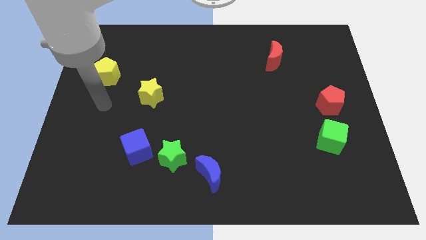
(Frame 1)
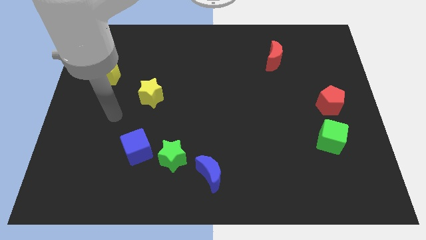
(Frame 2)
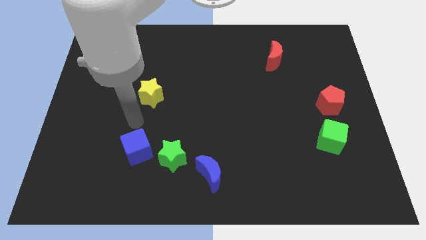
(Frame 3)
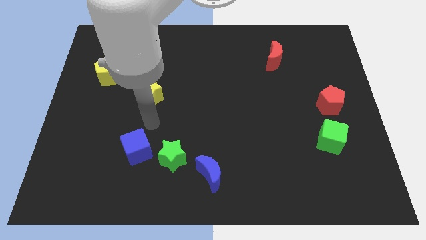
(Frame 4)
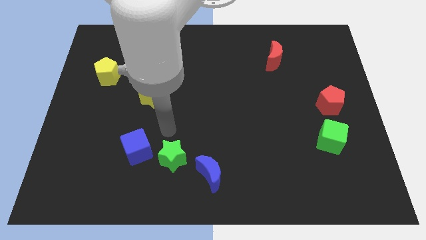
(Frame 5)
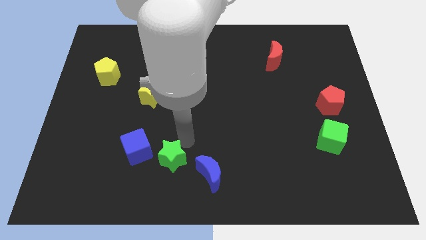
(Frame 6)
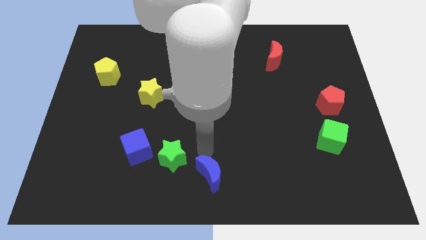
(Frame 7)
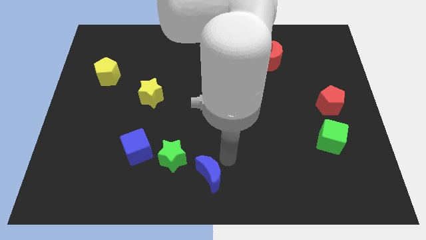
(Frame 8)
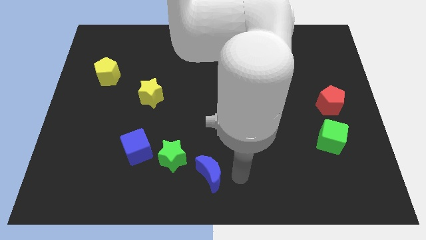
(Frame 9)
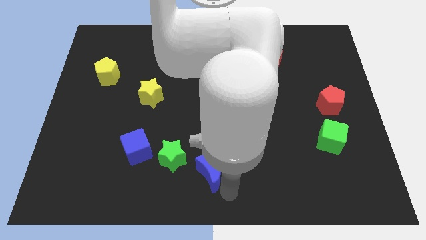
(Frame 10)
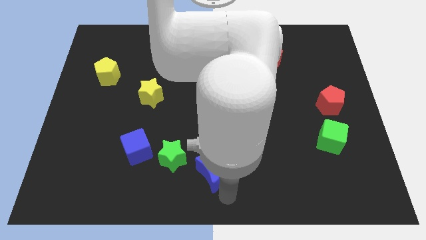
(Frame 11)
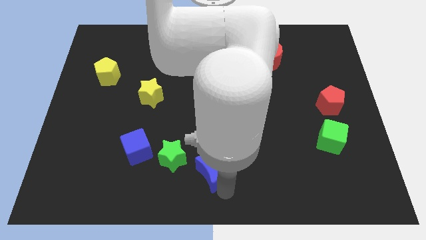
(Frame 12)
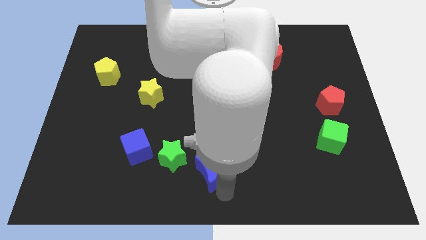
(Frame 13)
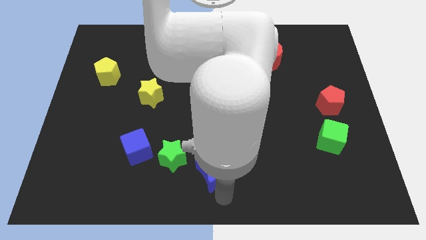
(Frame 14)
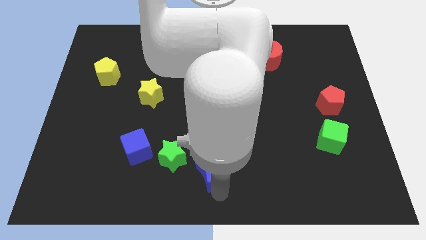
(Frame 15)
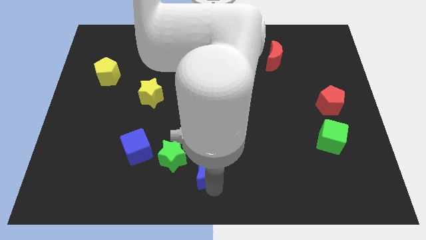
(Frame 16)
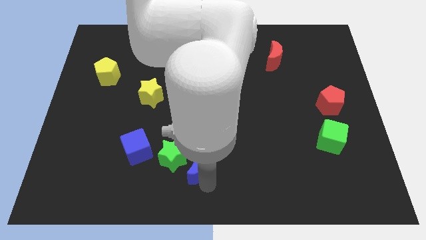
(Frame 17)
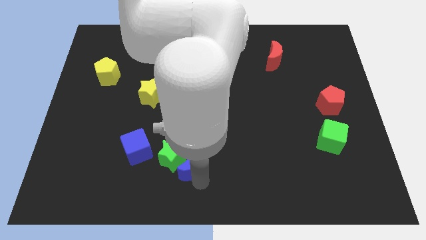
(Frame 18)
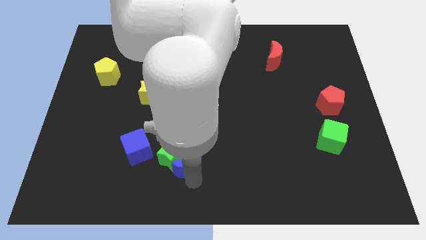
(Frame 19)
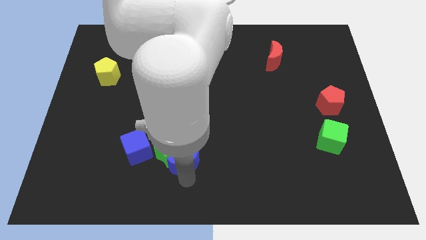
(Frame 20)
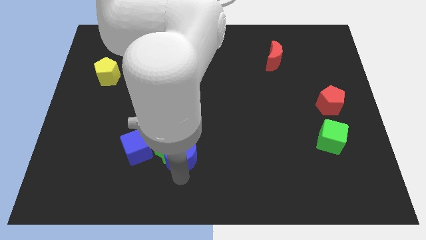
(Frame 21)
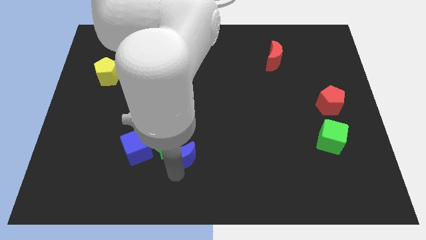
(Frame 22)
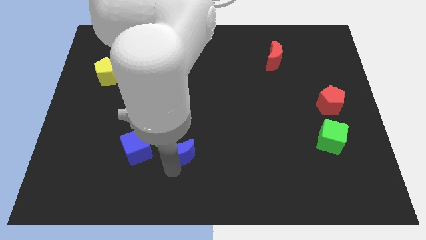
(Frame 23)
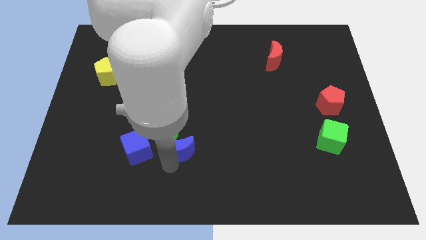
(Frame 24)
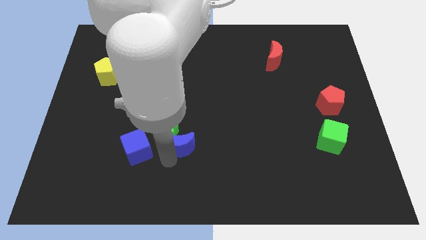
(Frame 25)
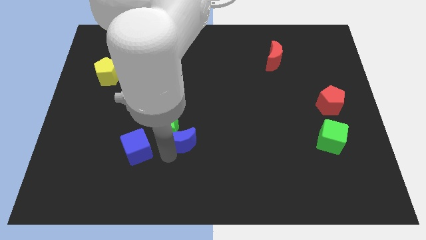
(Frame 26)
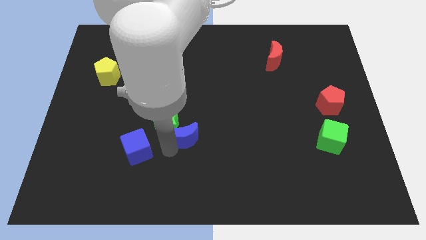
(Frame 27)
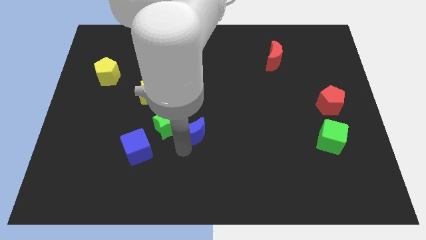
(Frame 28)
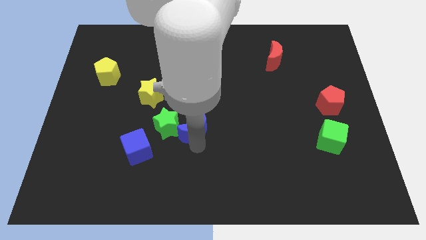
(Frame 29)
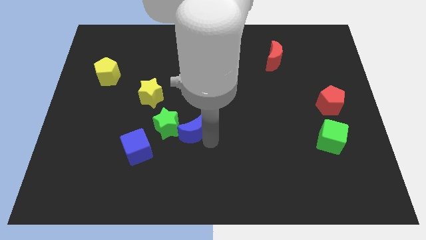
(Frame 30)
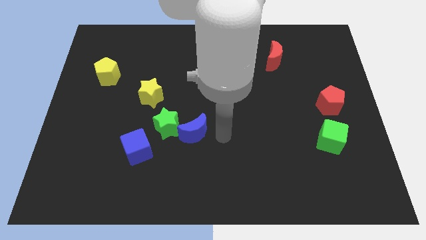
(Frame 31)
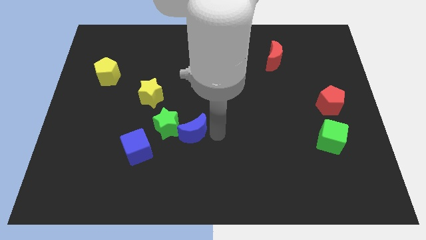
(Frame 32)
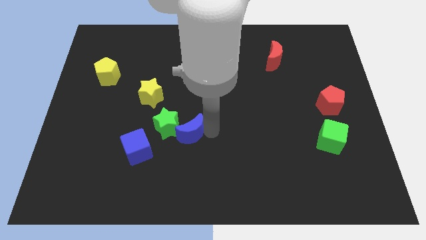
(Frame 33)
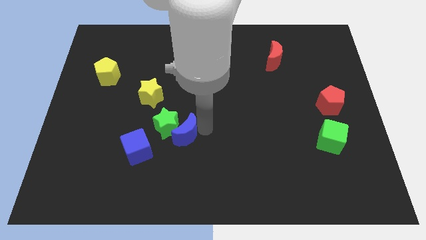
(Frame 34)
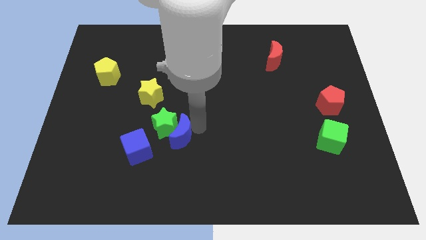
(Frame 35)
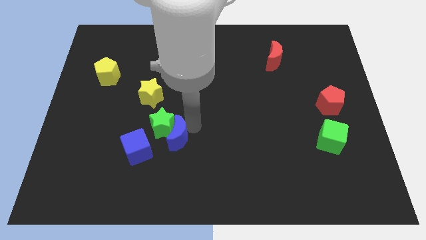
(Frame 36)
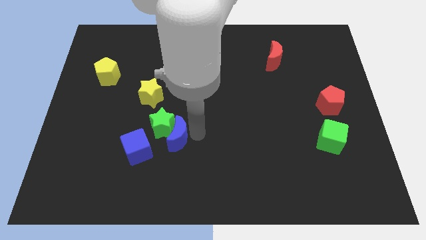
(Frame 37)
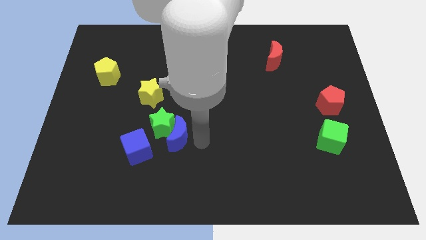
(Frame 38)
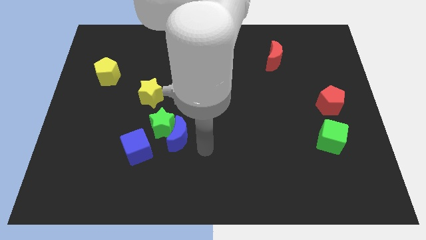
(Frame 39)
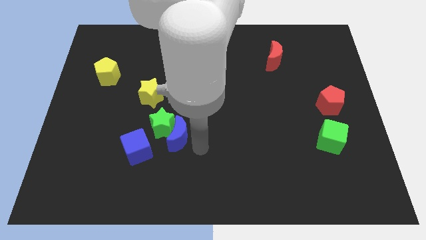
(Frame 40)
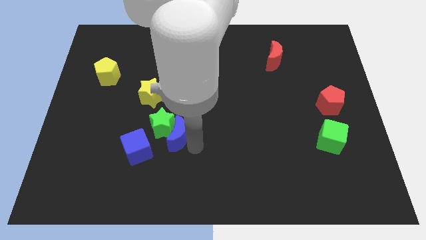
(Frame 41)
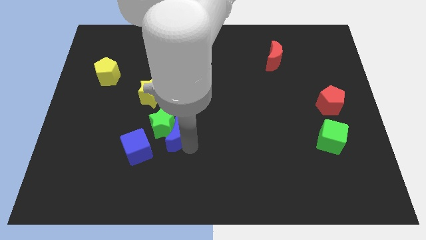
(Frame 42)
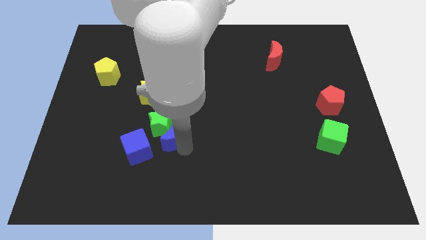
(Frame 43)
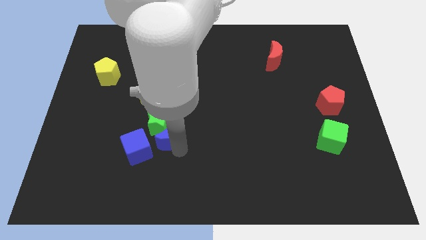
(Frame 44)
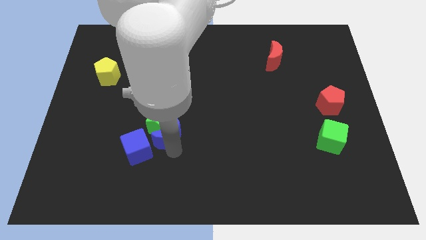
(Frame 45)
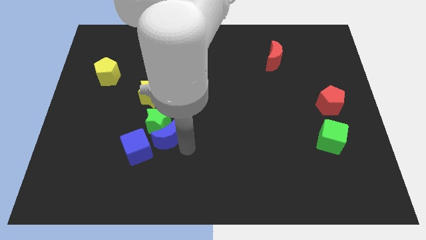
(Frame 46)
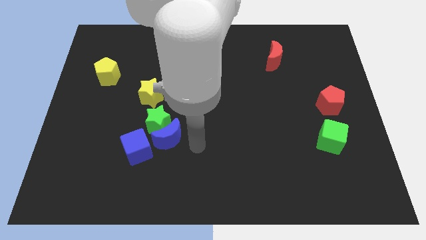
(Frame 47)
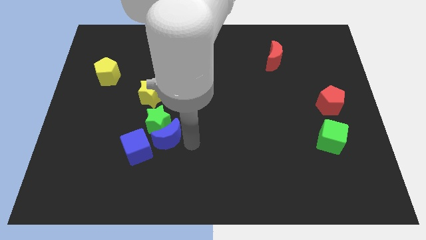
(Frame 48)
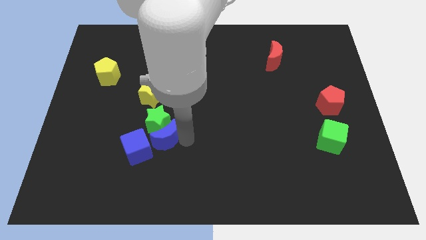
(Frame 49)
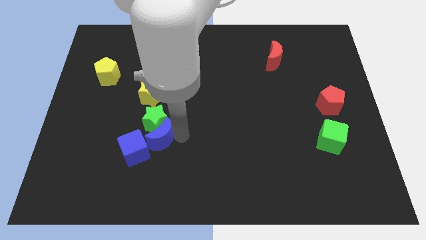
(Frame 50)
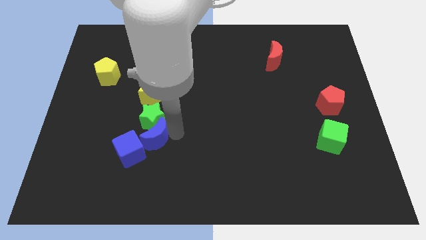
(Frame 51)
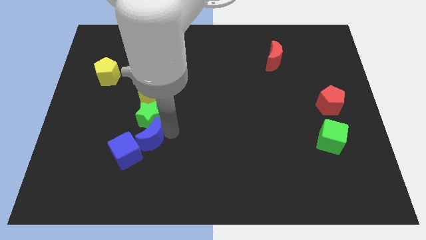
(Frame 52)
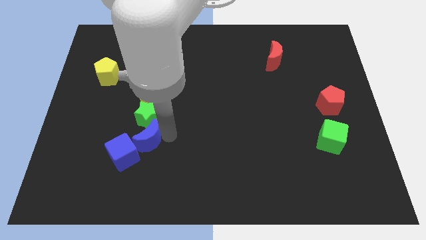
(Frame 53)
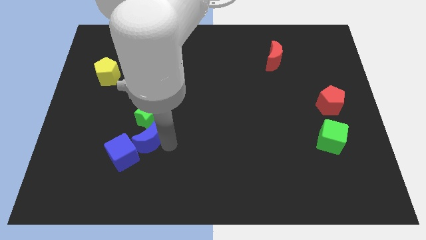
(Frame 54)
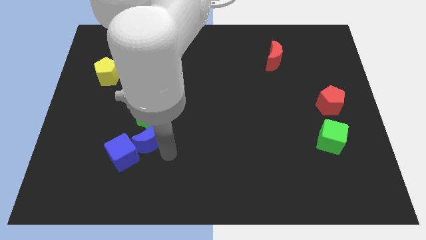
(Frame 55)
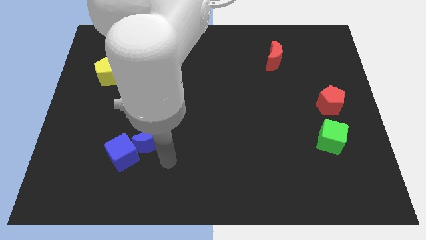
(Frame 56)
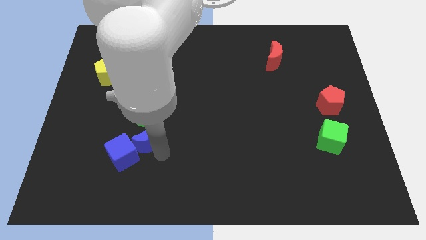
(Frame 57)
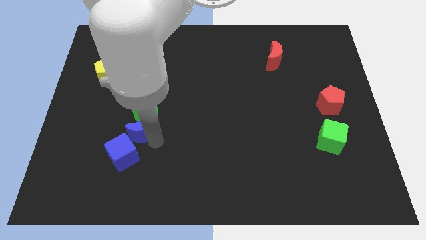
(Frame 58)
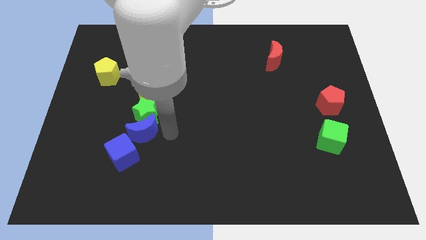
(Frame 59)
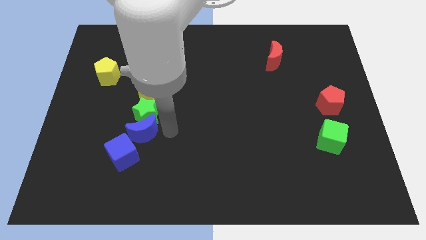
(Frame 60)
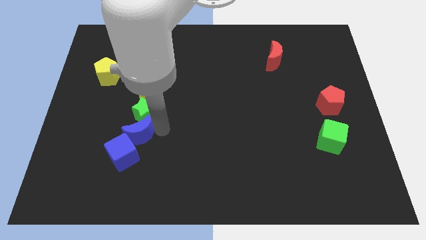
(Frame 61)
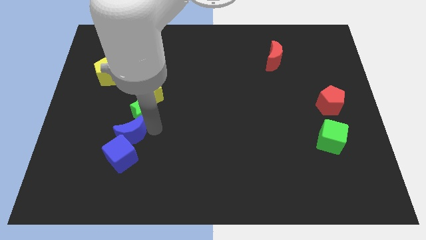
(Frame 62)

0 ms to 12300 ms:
put the blue moon diagonally up and to the left of the blue cube

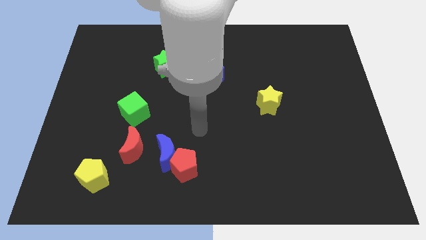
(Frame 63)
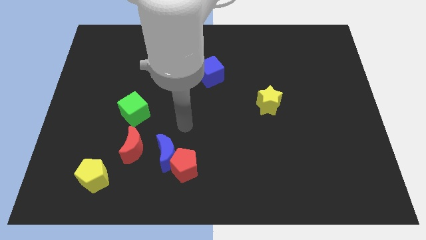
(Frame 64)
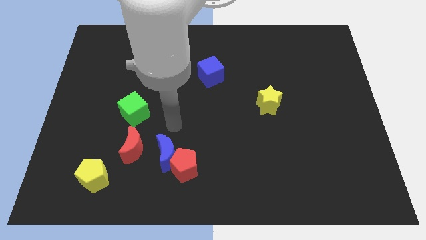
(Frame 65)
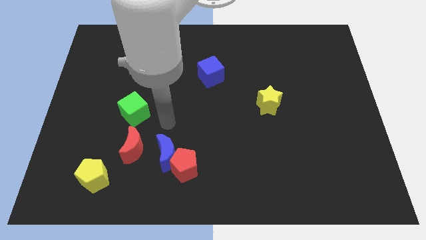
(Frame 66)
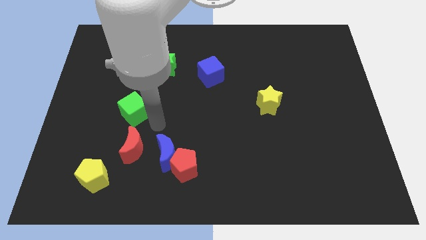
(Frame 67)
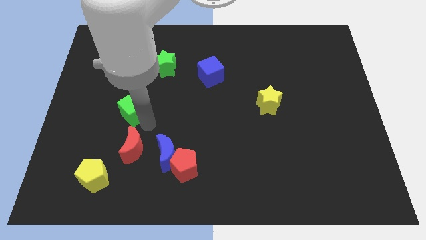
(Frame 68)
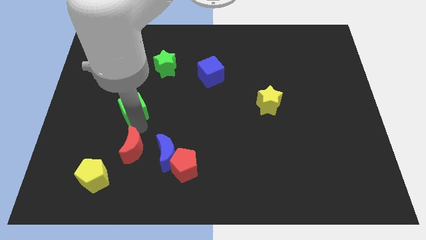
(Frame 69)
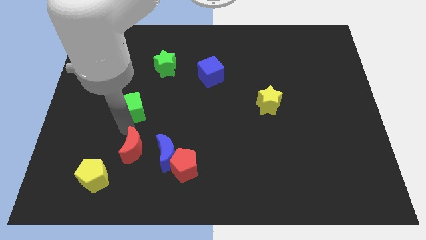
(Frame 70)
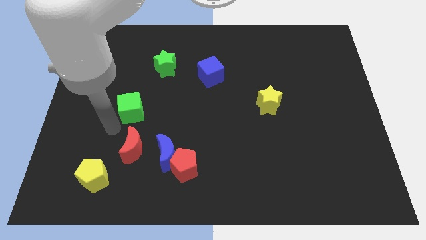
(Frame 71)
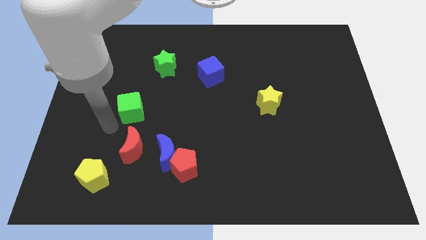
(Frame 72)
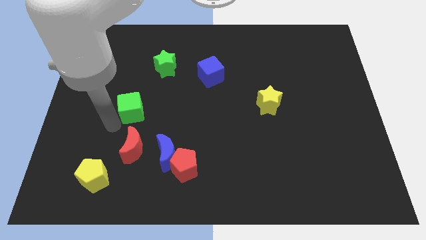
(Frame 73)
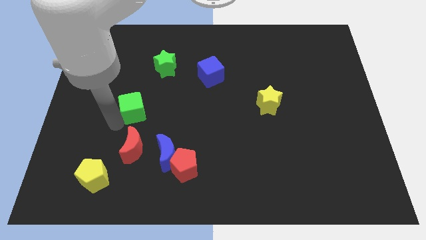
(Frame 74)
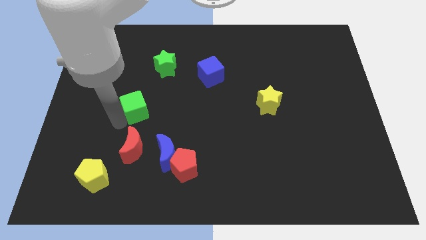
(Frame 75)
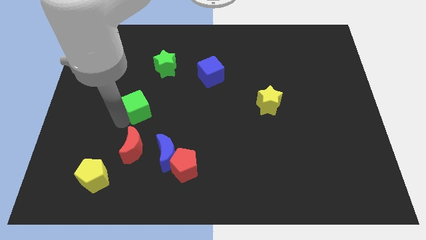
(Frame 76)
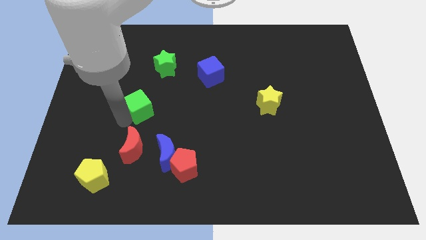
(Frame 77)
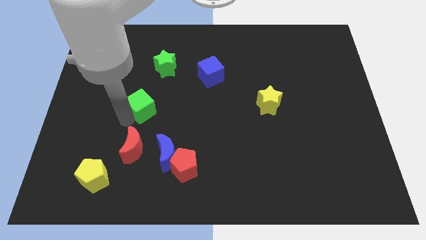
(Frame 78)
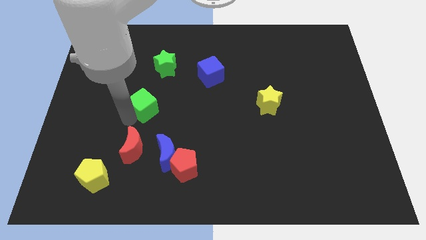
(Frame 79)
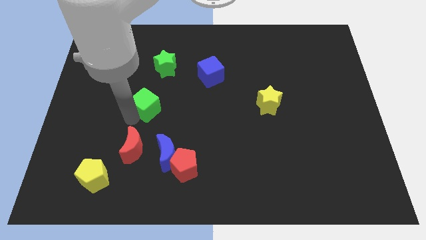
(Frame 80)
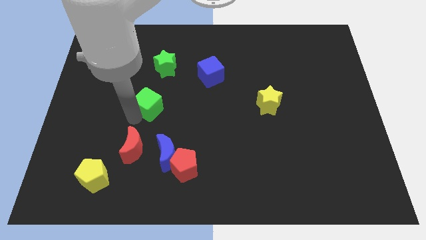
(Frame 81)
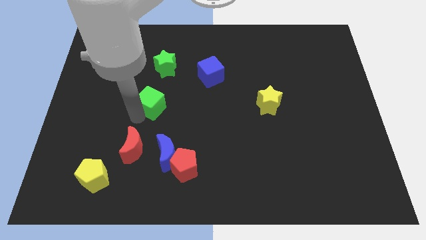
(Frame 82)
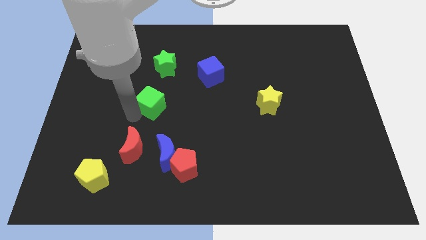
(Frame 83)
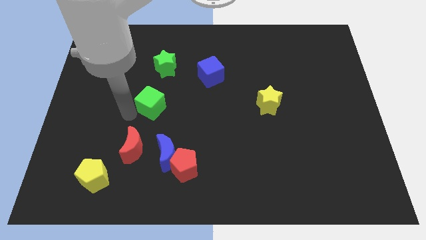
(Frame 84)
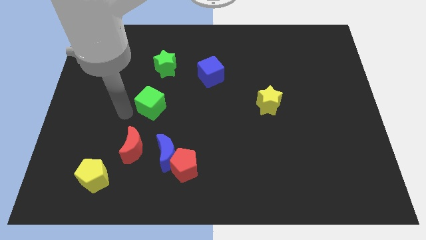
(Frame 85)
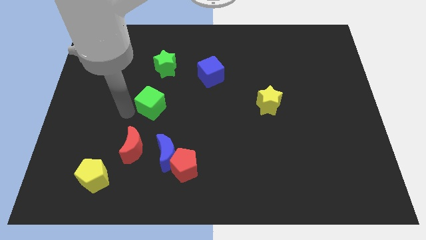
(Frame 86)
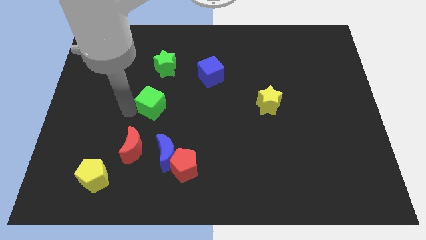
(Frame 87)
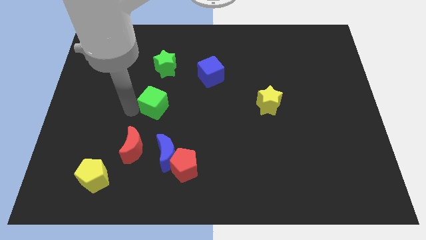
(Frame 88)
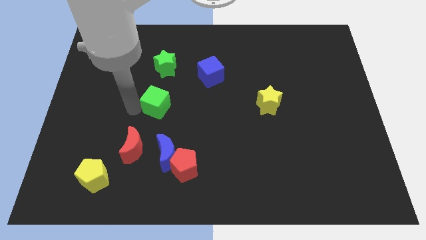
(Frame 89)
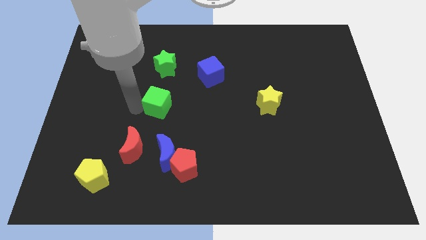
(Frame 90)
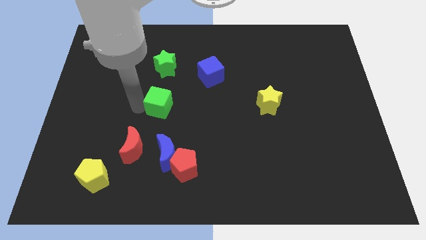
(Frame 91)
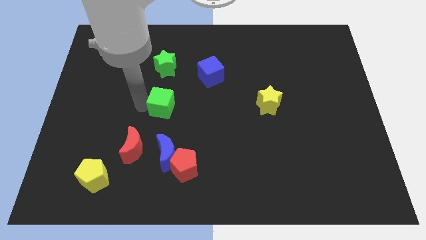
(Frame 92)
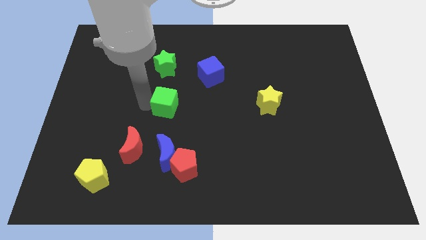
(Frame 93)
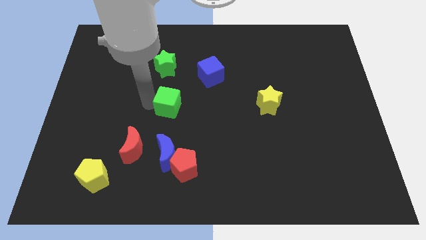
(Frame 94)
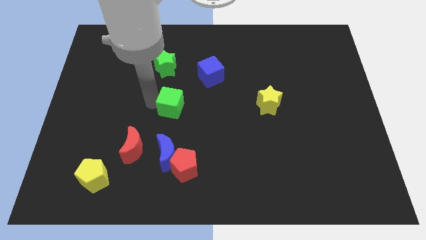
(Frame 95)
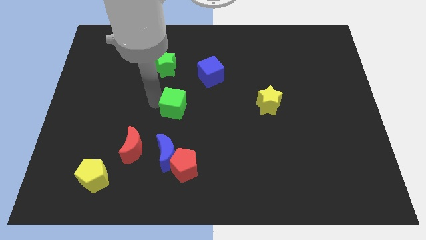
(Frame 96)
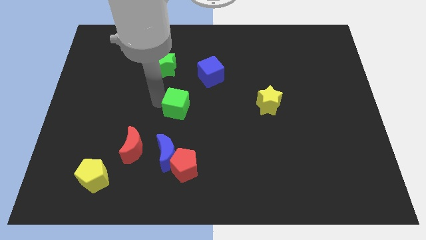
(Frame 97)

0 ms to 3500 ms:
push the green cube to the bottom left side of the blue cube
